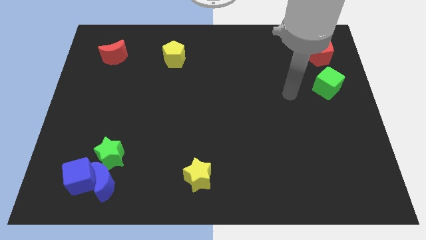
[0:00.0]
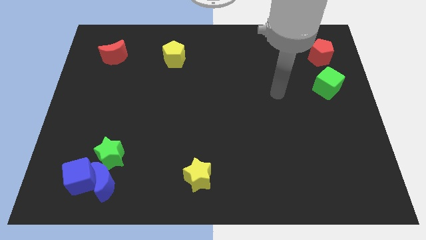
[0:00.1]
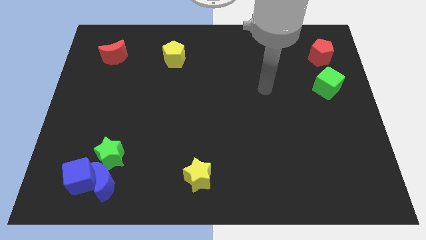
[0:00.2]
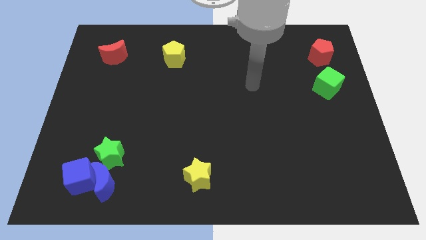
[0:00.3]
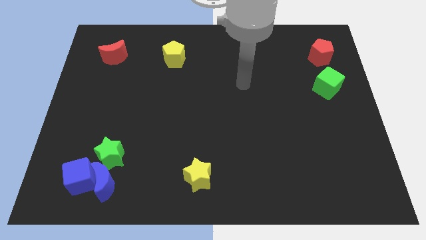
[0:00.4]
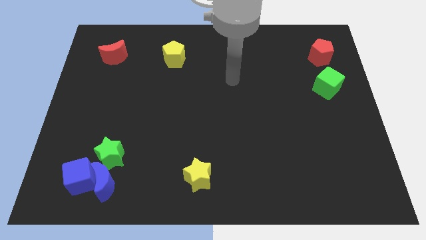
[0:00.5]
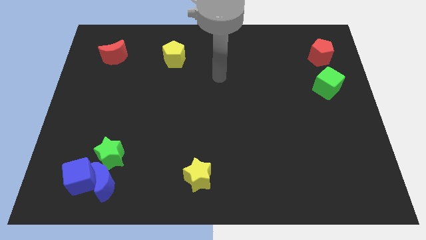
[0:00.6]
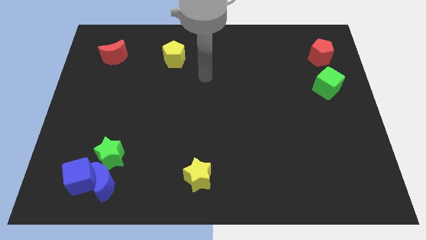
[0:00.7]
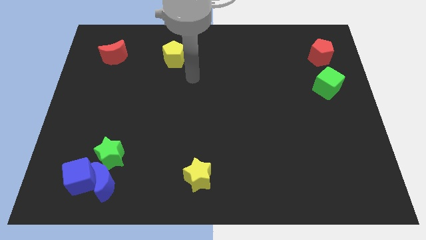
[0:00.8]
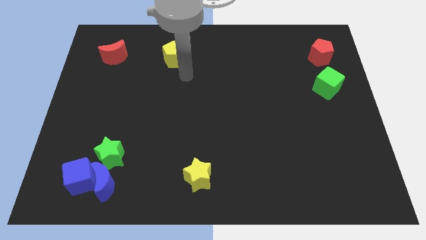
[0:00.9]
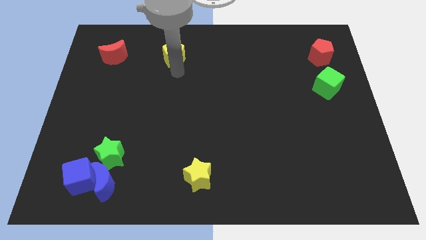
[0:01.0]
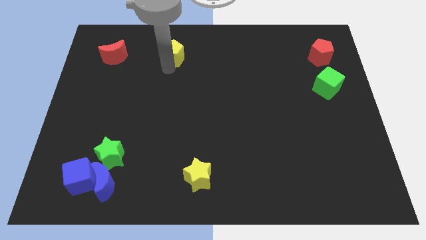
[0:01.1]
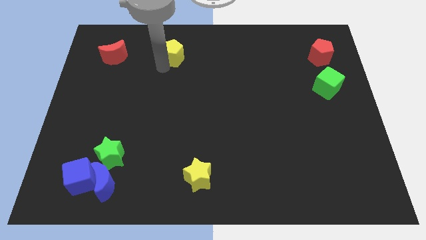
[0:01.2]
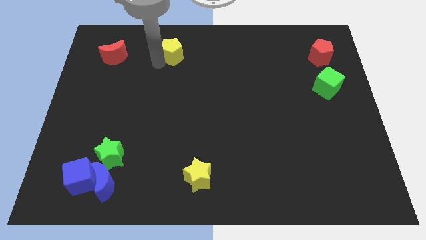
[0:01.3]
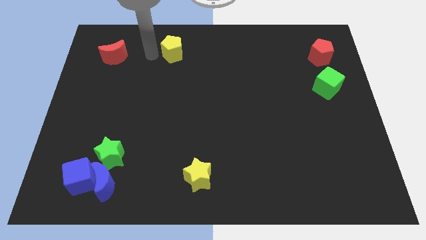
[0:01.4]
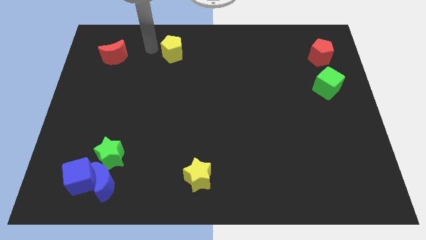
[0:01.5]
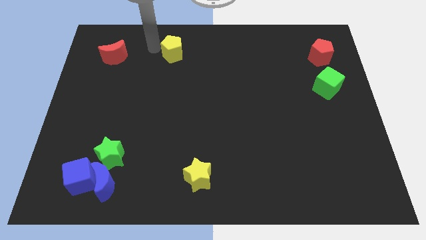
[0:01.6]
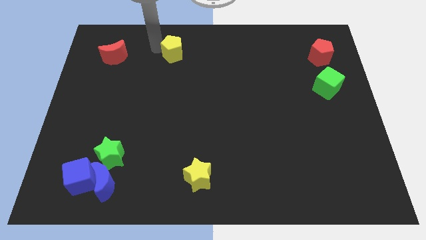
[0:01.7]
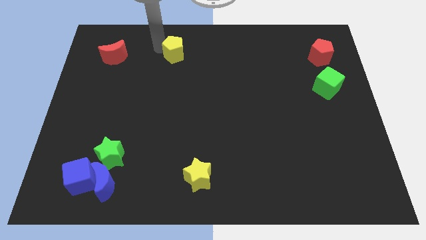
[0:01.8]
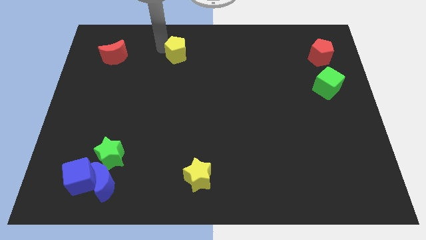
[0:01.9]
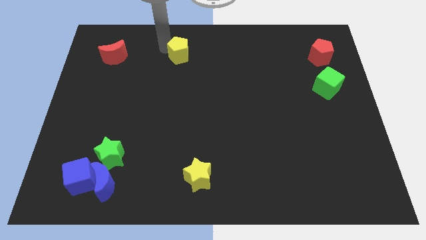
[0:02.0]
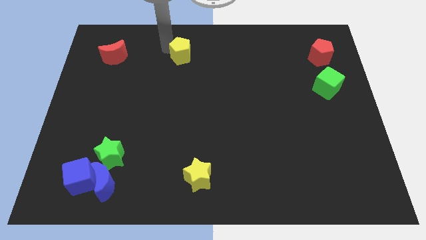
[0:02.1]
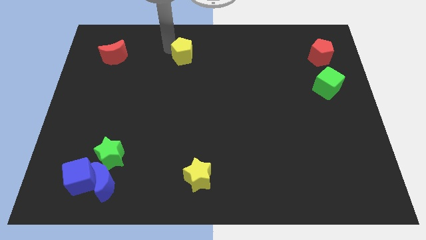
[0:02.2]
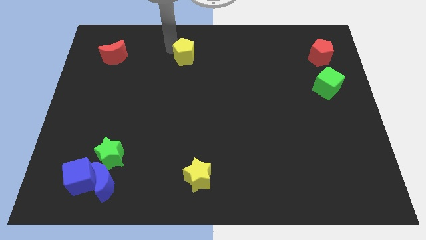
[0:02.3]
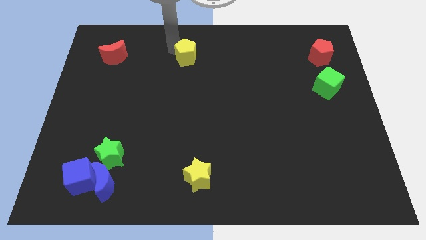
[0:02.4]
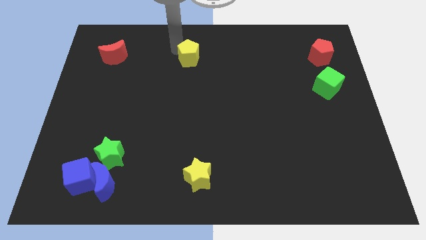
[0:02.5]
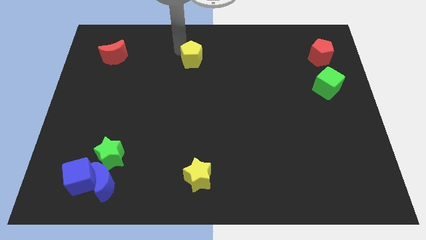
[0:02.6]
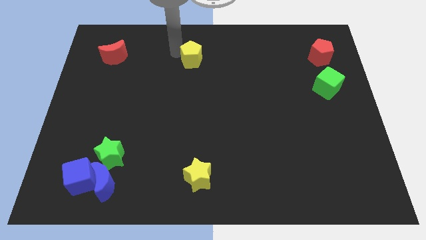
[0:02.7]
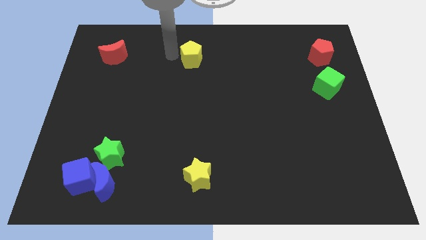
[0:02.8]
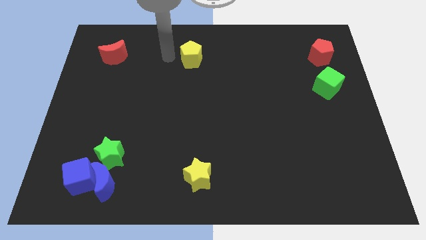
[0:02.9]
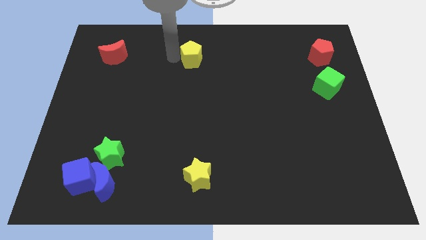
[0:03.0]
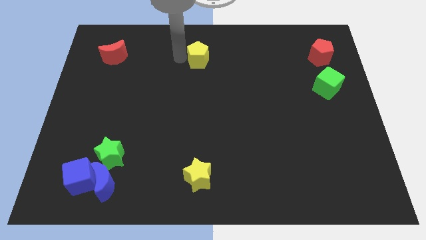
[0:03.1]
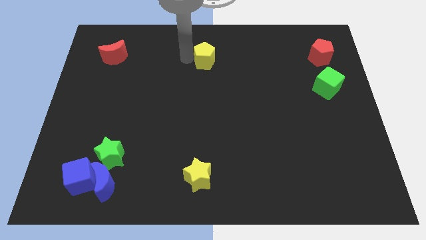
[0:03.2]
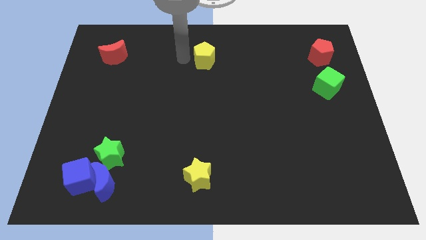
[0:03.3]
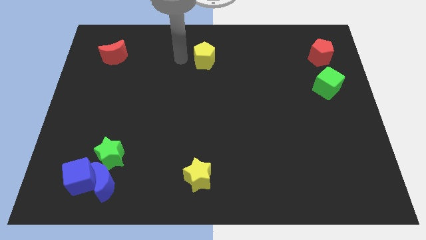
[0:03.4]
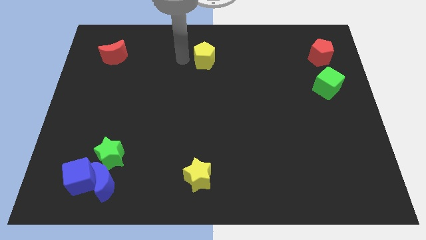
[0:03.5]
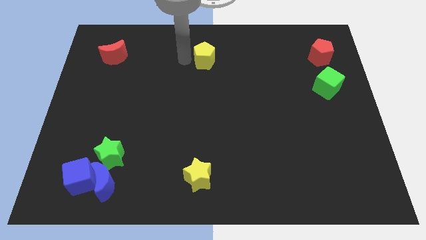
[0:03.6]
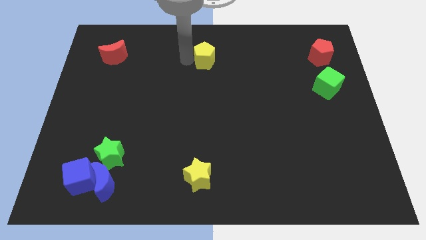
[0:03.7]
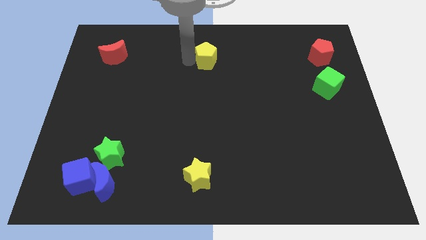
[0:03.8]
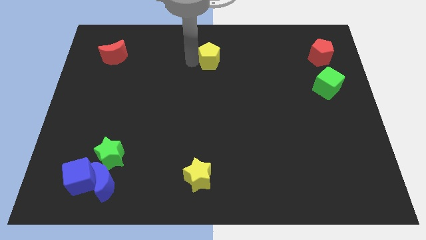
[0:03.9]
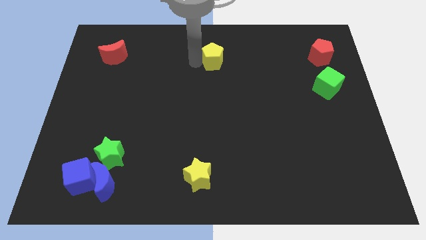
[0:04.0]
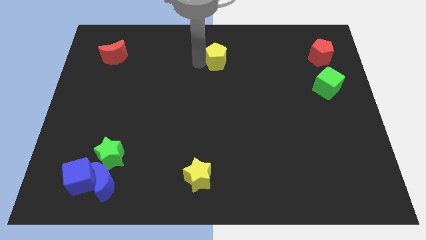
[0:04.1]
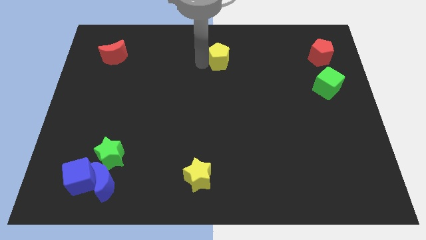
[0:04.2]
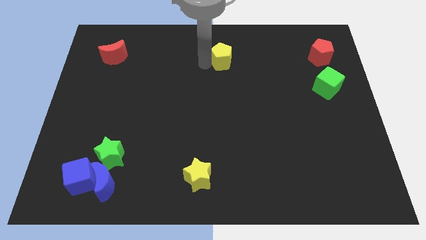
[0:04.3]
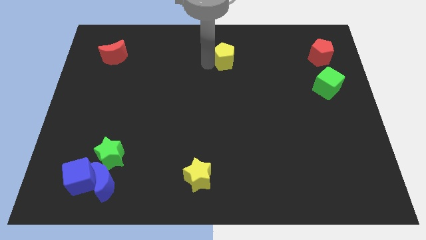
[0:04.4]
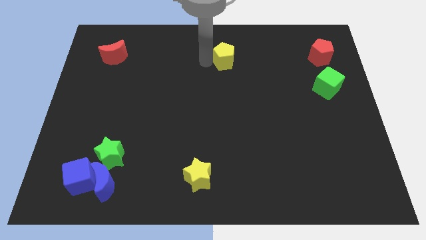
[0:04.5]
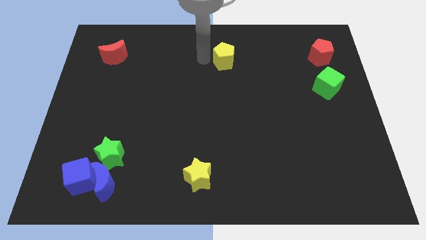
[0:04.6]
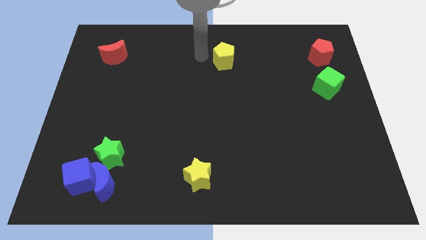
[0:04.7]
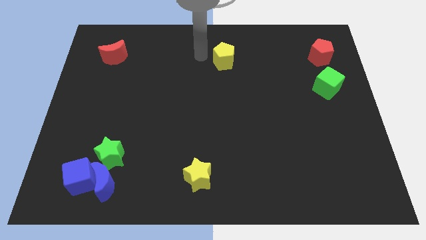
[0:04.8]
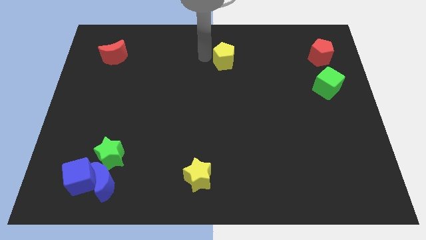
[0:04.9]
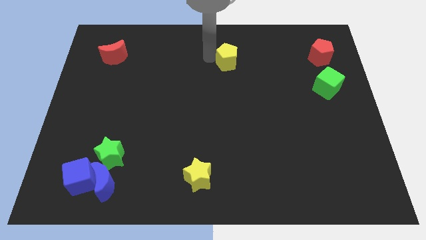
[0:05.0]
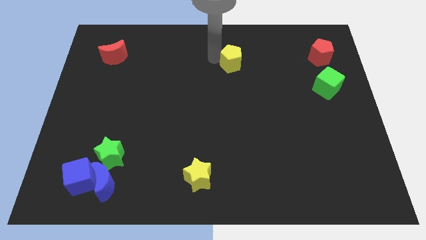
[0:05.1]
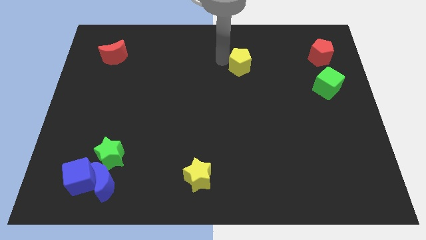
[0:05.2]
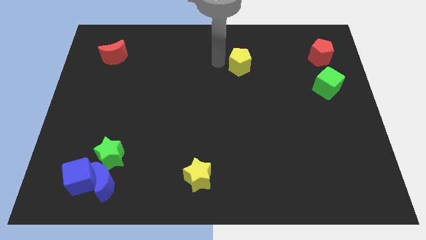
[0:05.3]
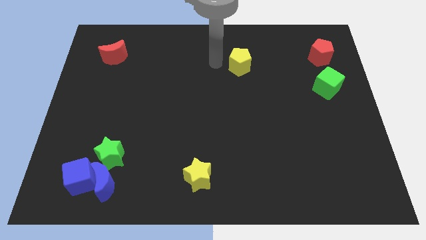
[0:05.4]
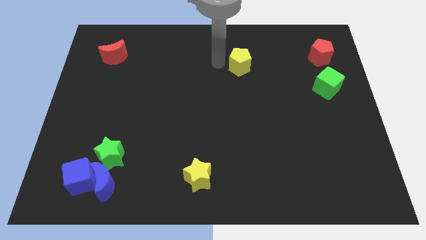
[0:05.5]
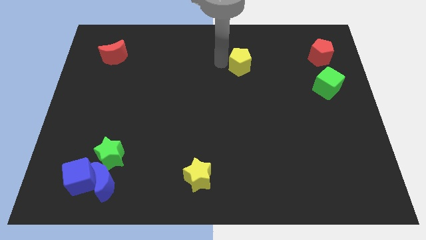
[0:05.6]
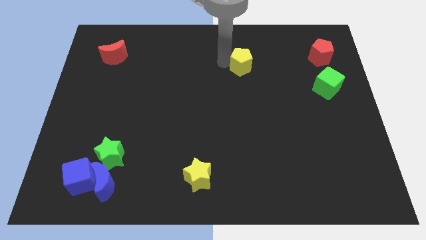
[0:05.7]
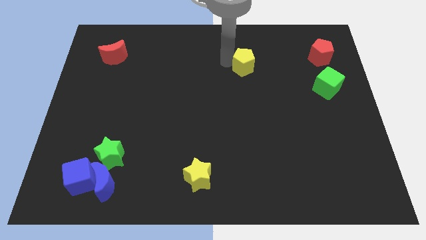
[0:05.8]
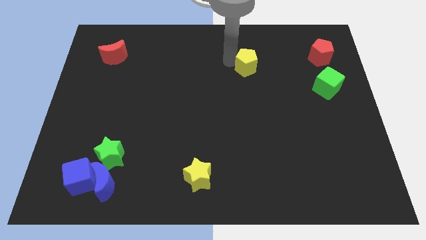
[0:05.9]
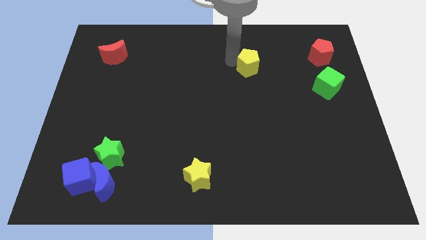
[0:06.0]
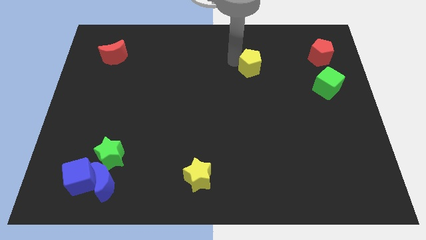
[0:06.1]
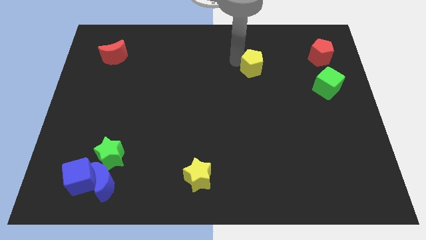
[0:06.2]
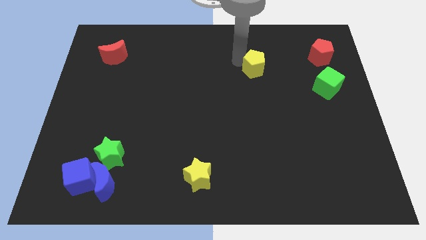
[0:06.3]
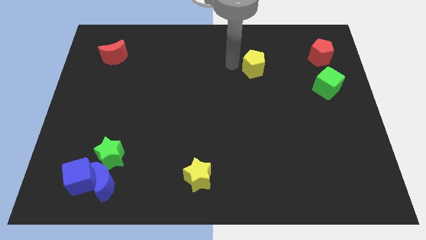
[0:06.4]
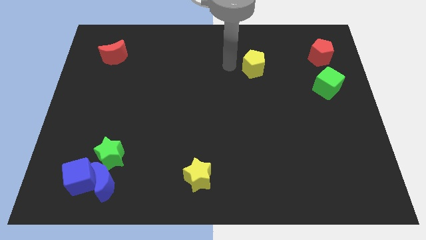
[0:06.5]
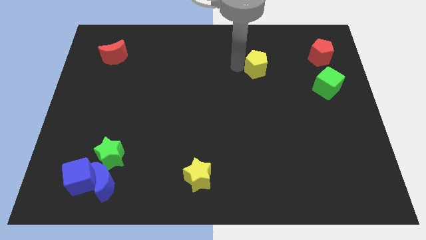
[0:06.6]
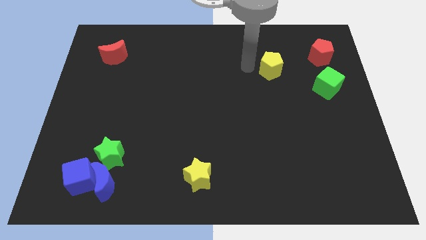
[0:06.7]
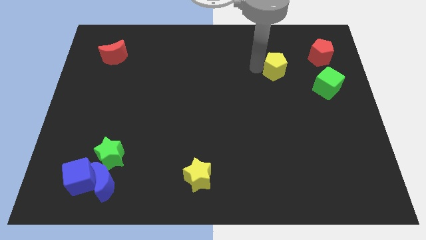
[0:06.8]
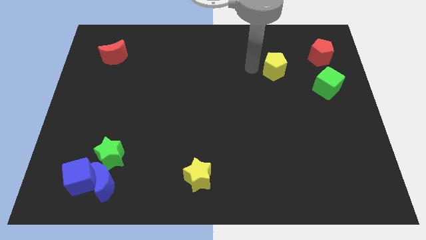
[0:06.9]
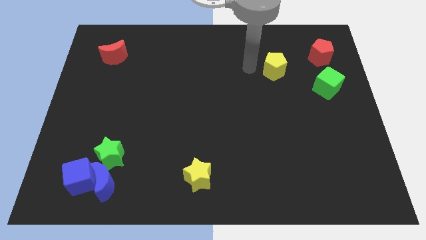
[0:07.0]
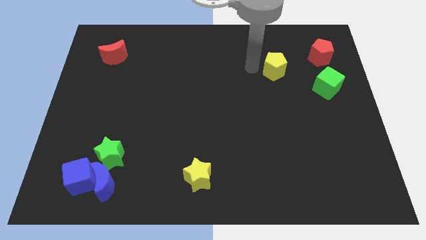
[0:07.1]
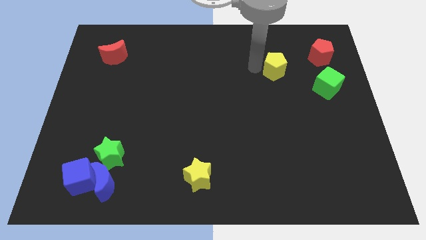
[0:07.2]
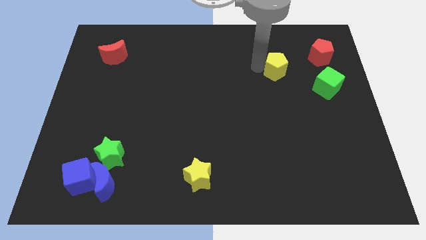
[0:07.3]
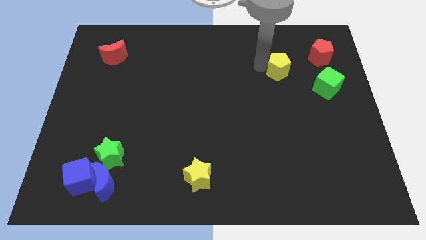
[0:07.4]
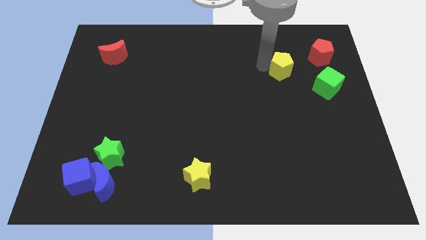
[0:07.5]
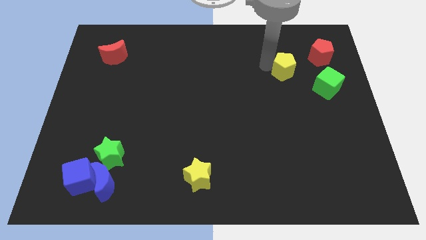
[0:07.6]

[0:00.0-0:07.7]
slide the yellow pentagon diagonally down and to the left of the red pentagon
